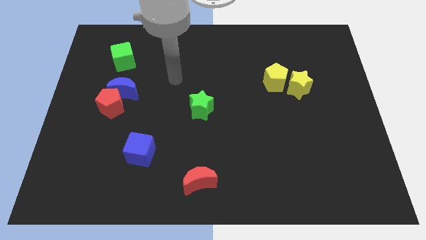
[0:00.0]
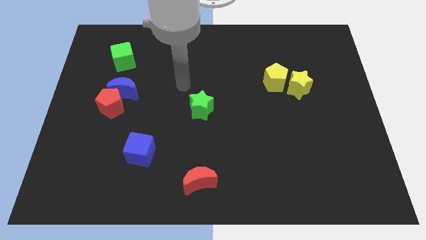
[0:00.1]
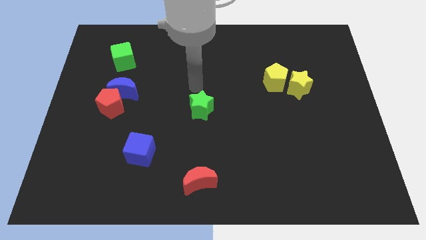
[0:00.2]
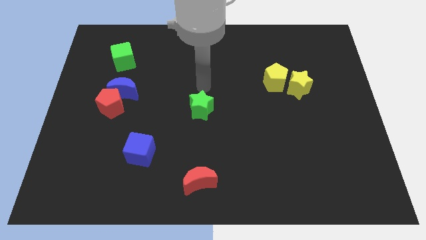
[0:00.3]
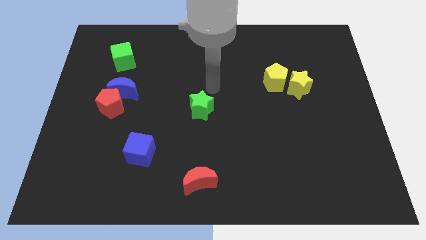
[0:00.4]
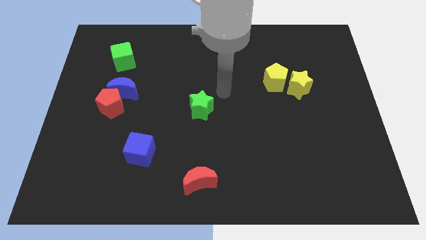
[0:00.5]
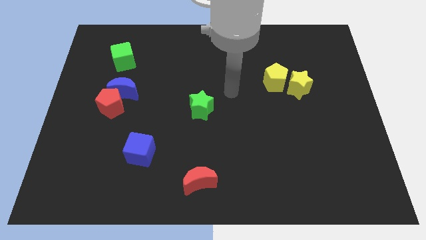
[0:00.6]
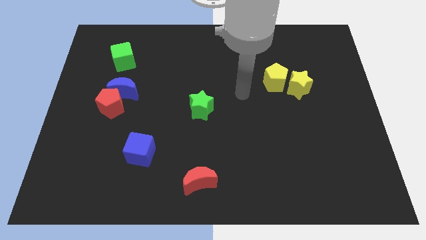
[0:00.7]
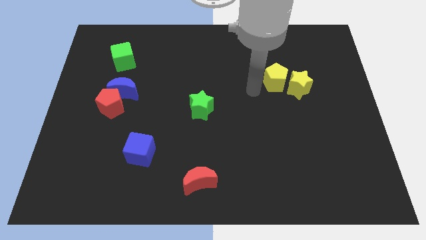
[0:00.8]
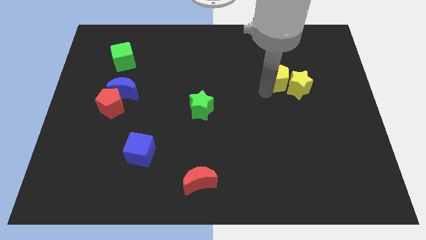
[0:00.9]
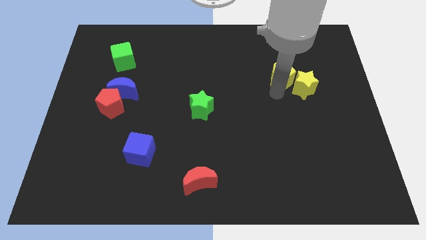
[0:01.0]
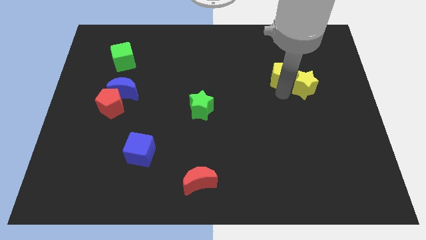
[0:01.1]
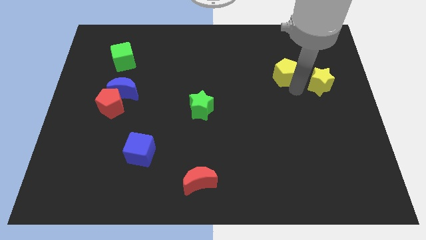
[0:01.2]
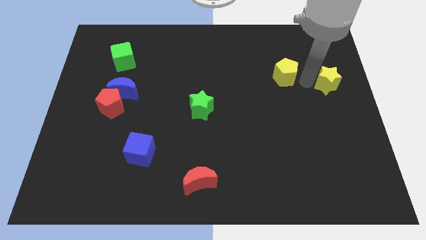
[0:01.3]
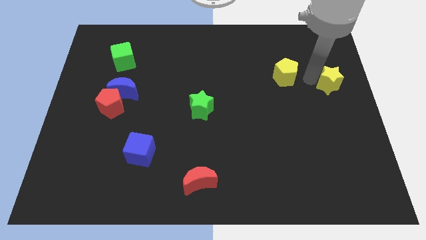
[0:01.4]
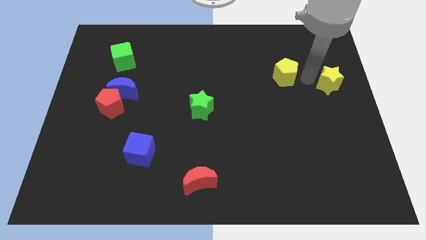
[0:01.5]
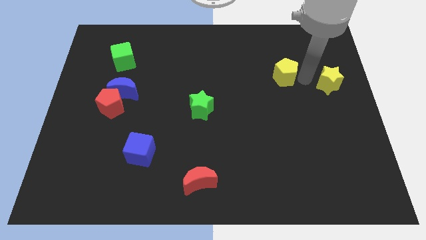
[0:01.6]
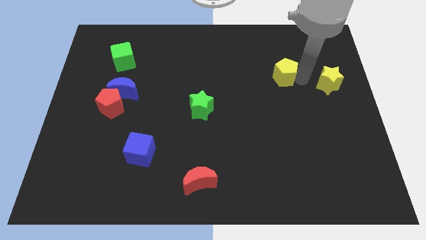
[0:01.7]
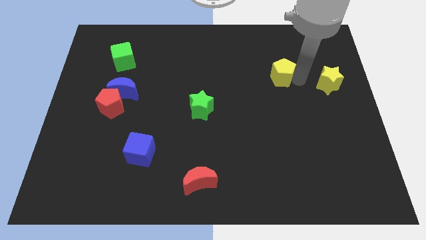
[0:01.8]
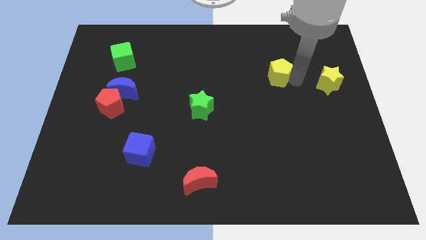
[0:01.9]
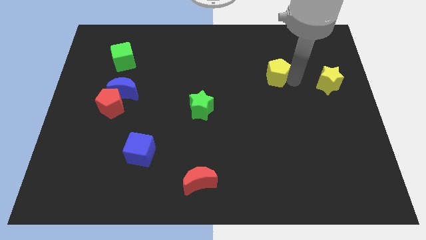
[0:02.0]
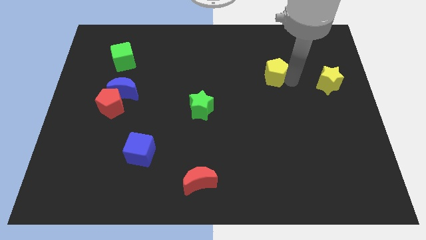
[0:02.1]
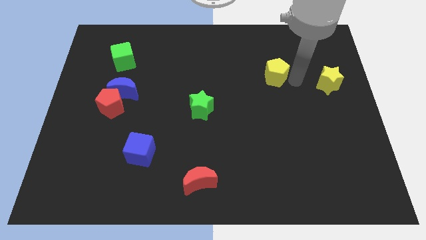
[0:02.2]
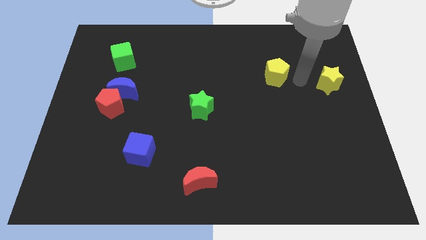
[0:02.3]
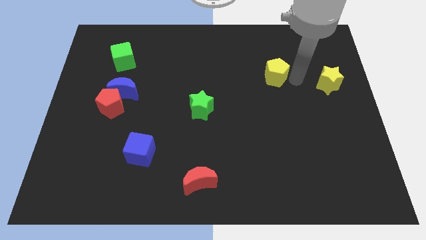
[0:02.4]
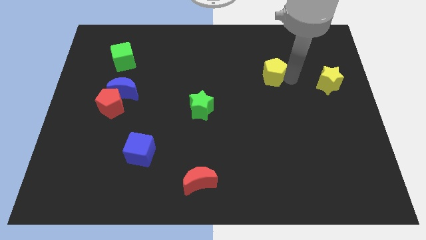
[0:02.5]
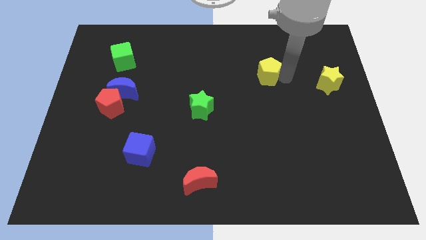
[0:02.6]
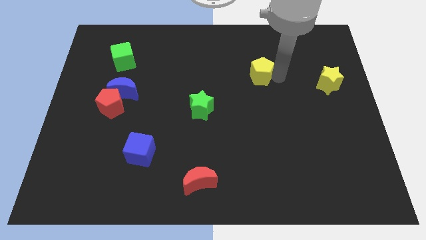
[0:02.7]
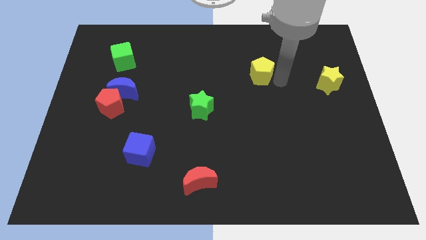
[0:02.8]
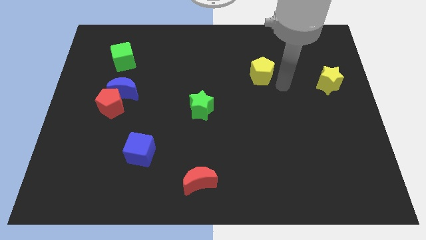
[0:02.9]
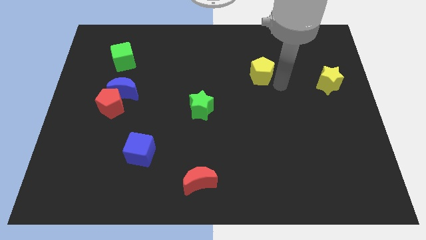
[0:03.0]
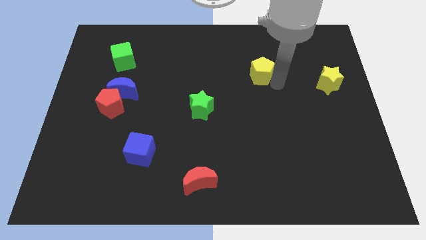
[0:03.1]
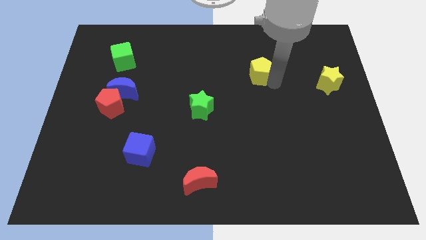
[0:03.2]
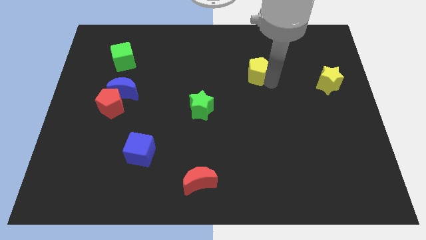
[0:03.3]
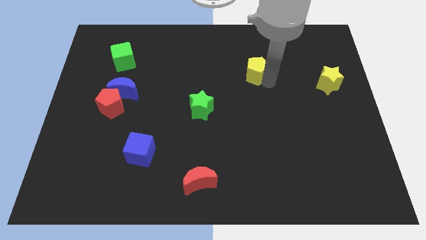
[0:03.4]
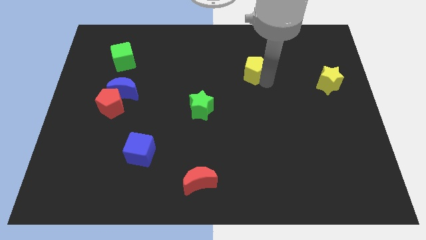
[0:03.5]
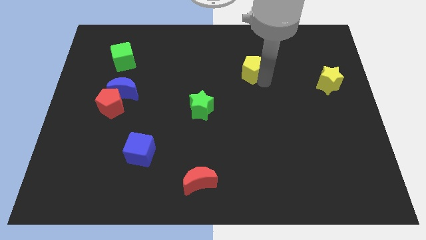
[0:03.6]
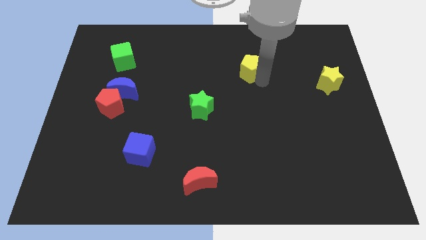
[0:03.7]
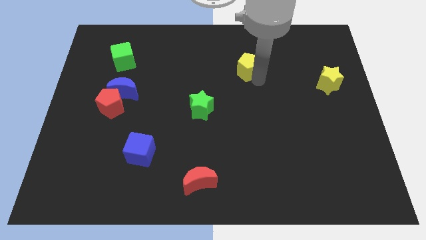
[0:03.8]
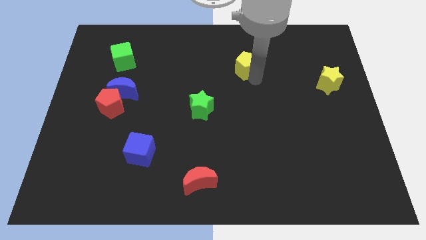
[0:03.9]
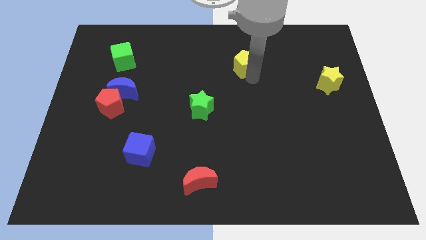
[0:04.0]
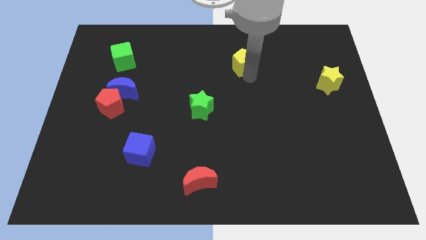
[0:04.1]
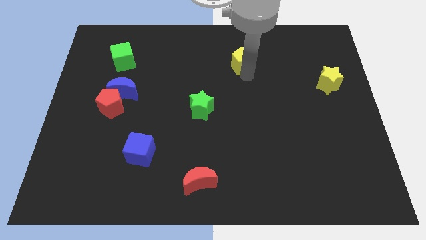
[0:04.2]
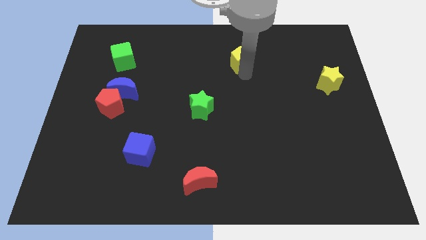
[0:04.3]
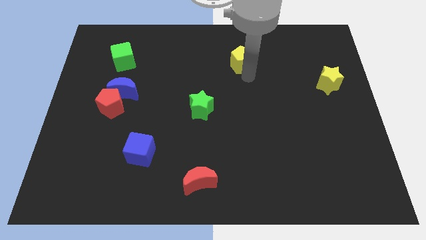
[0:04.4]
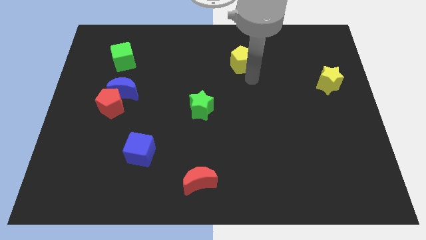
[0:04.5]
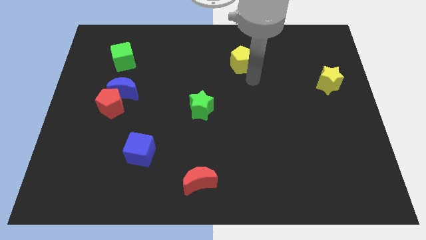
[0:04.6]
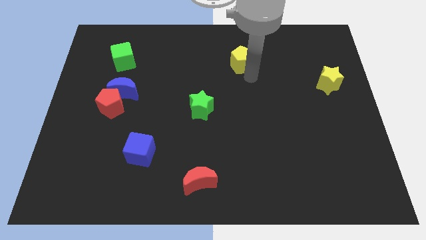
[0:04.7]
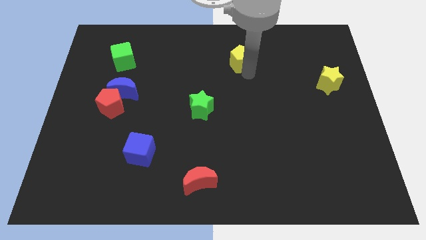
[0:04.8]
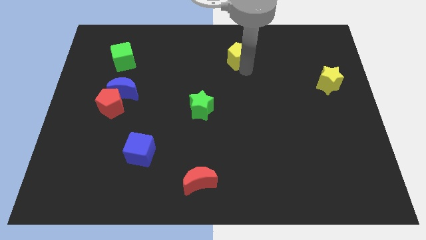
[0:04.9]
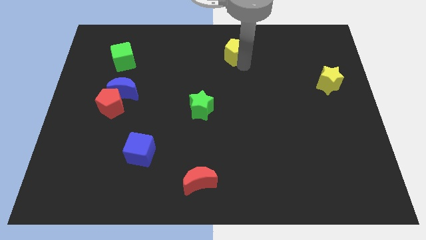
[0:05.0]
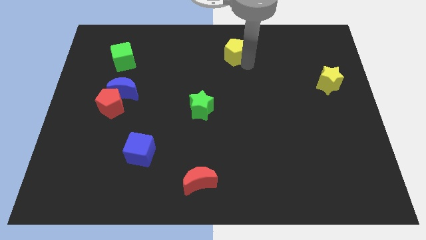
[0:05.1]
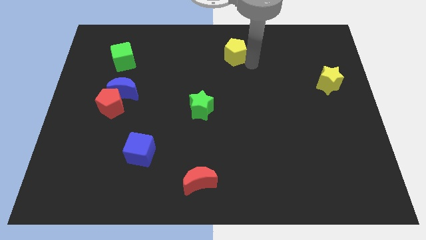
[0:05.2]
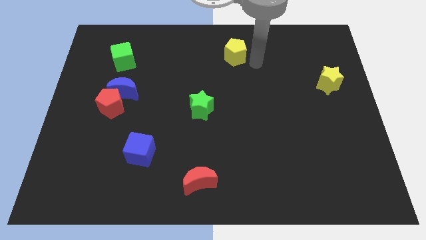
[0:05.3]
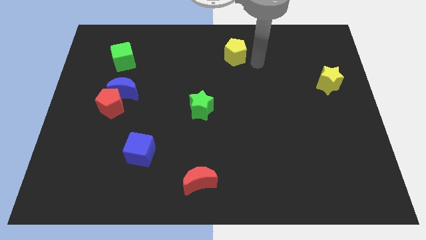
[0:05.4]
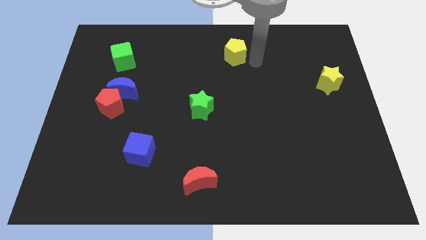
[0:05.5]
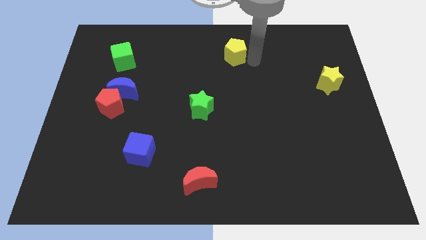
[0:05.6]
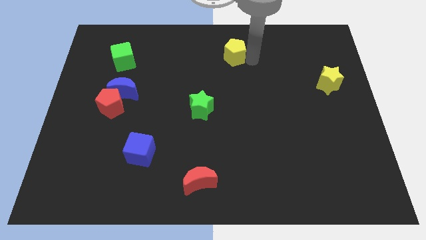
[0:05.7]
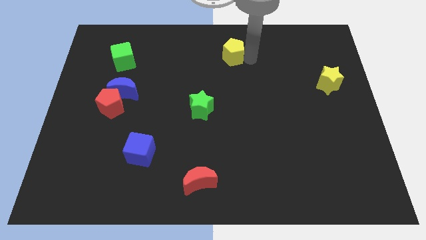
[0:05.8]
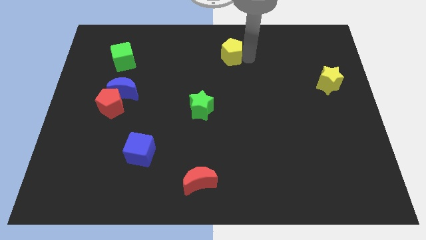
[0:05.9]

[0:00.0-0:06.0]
move the yellow pentagon to the top
